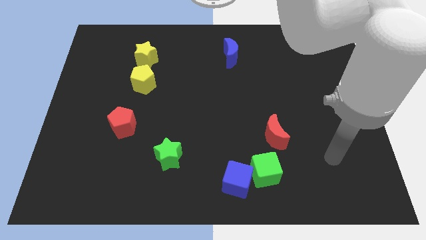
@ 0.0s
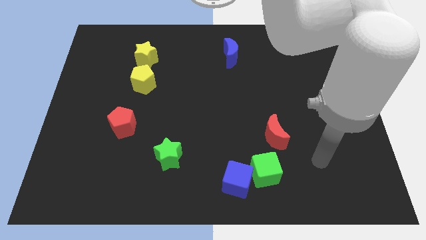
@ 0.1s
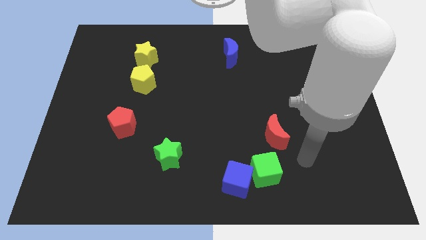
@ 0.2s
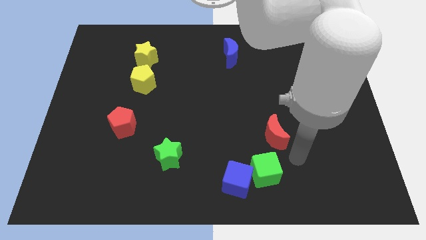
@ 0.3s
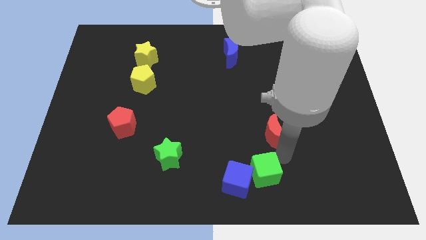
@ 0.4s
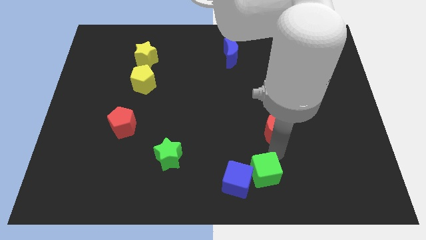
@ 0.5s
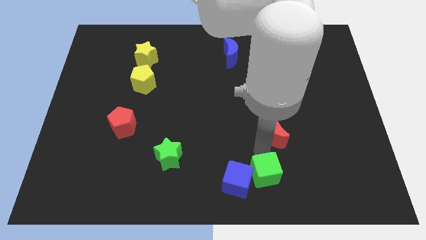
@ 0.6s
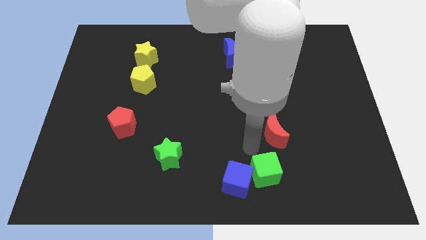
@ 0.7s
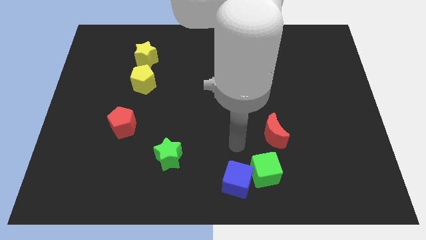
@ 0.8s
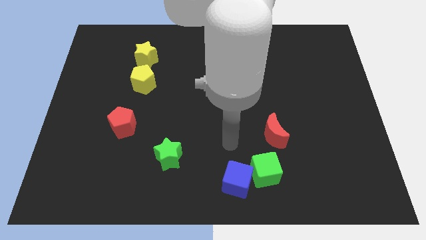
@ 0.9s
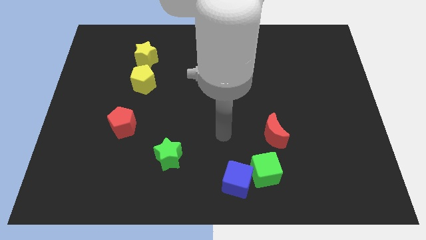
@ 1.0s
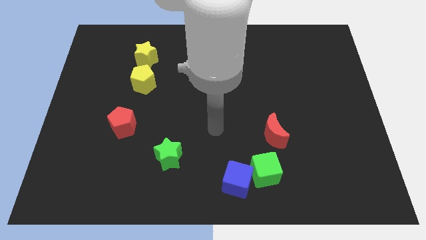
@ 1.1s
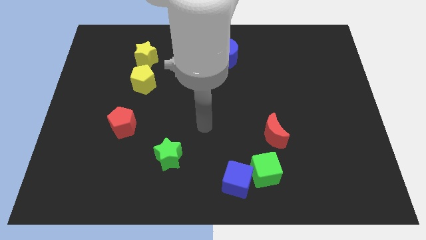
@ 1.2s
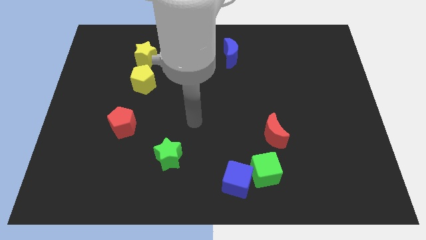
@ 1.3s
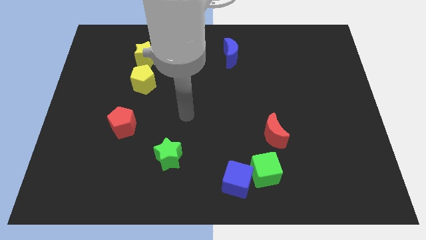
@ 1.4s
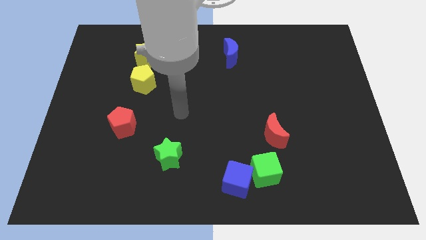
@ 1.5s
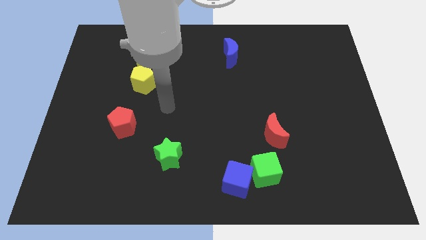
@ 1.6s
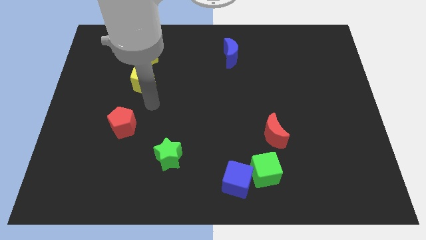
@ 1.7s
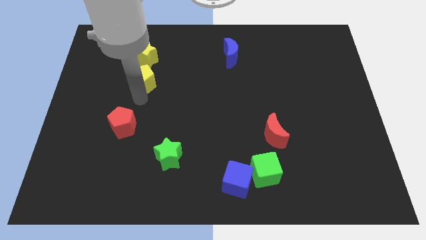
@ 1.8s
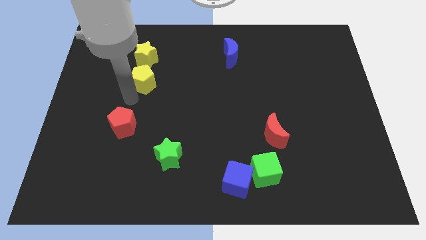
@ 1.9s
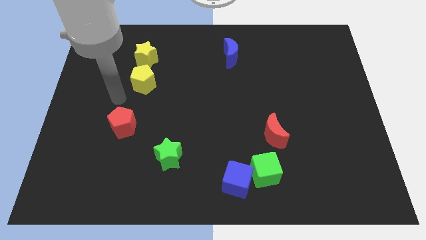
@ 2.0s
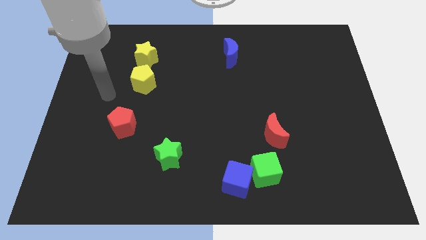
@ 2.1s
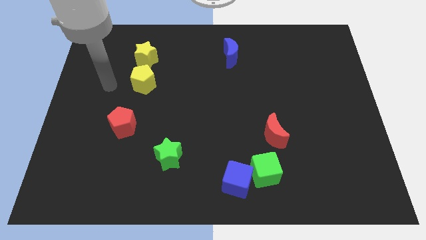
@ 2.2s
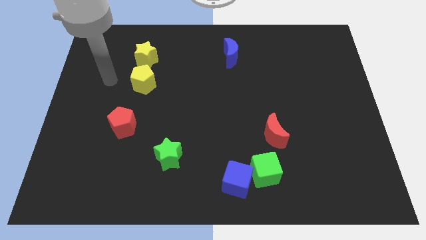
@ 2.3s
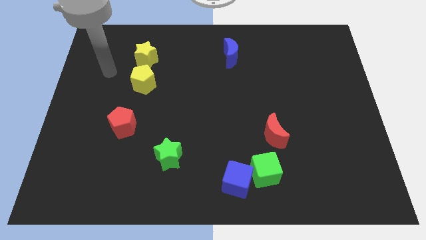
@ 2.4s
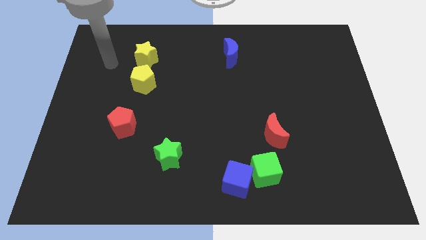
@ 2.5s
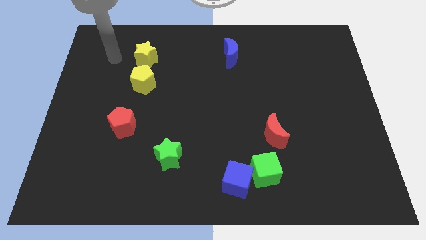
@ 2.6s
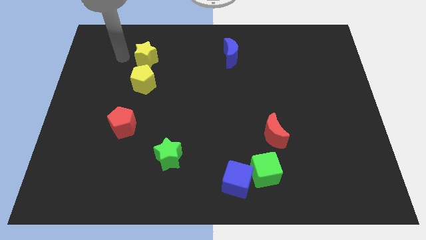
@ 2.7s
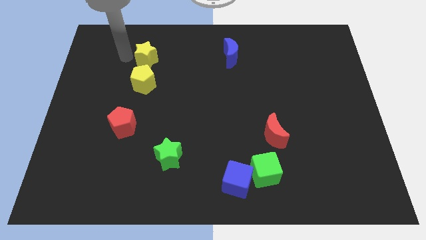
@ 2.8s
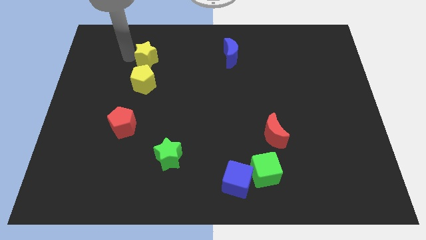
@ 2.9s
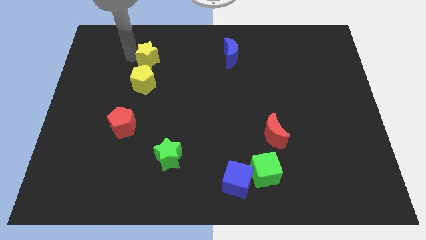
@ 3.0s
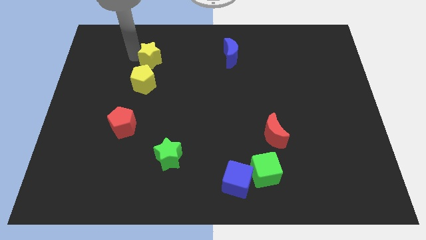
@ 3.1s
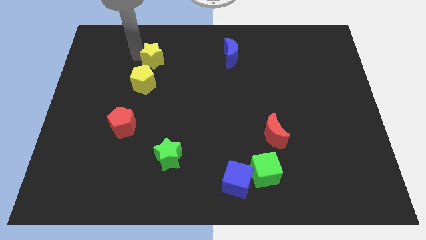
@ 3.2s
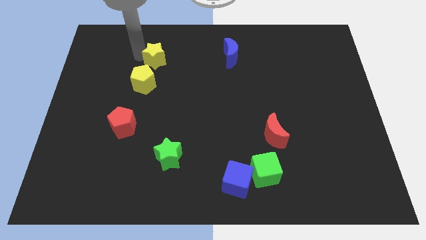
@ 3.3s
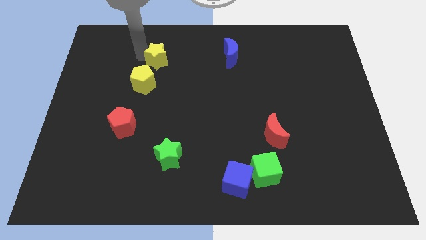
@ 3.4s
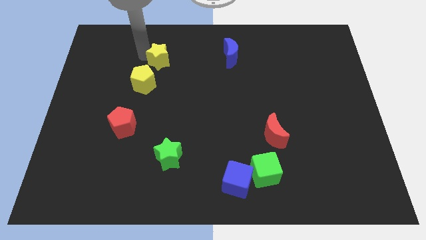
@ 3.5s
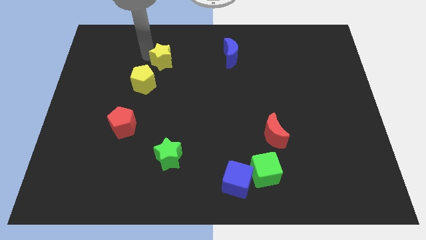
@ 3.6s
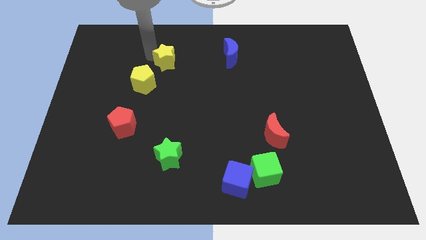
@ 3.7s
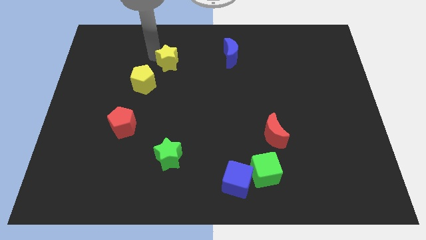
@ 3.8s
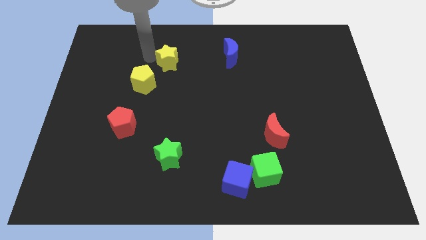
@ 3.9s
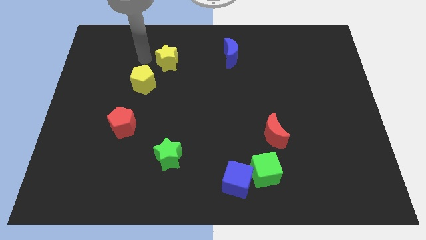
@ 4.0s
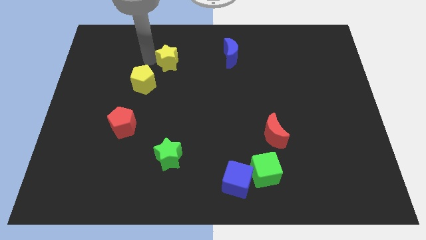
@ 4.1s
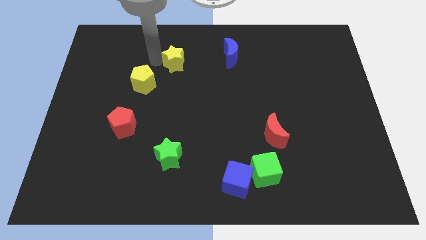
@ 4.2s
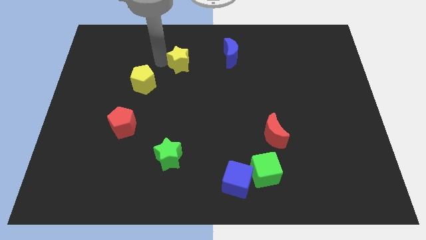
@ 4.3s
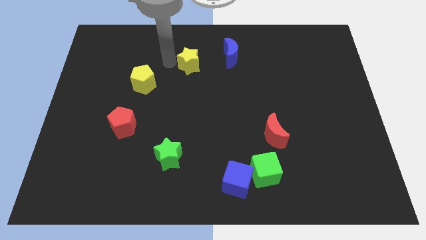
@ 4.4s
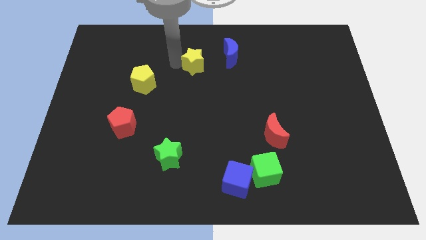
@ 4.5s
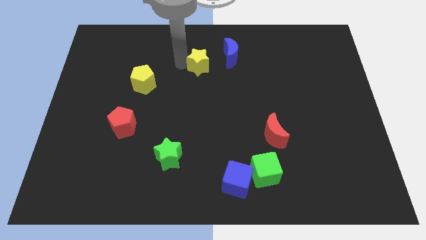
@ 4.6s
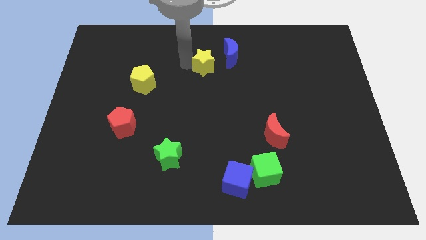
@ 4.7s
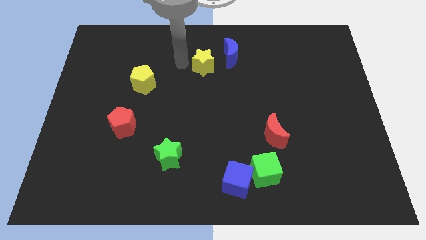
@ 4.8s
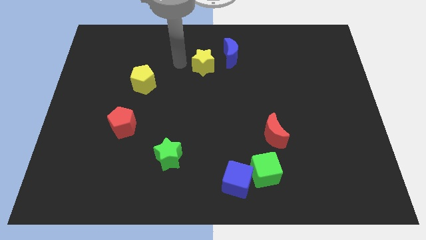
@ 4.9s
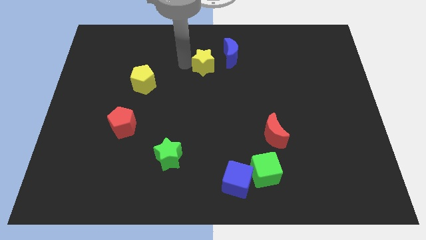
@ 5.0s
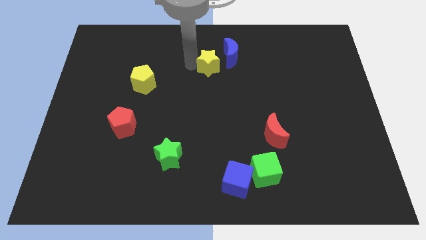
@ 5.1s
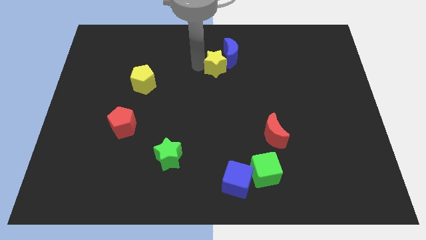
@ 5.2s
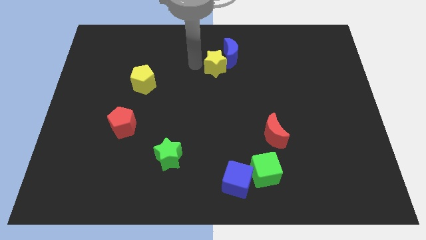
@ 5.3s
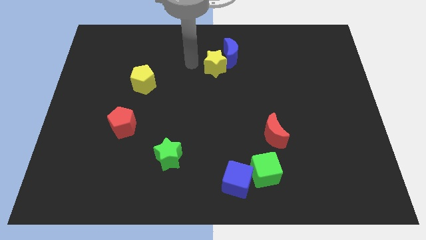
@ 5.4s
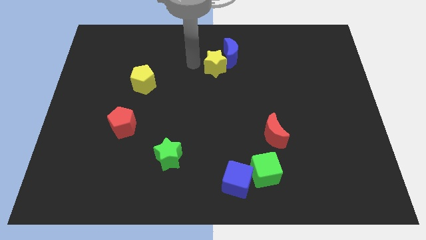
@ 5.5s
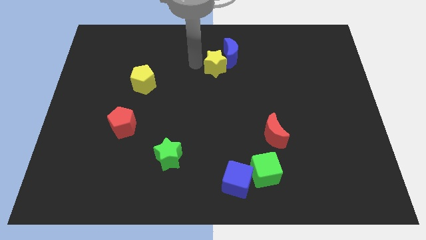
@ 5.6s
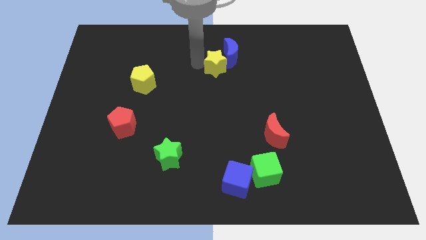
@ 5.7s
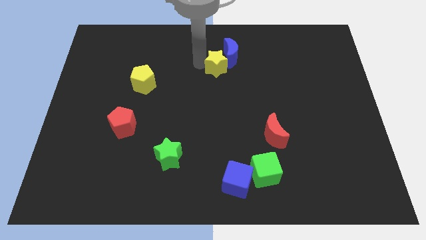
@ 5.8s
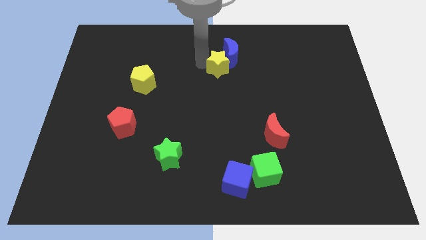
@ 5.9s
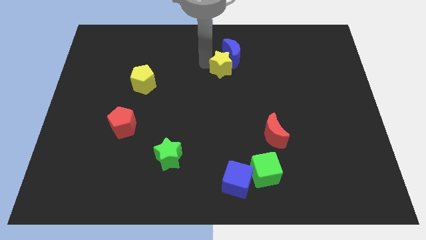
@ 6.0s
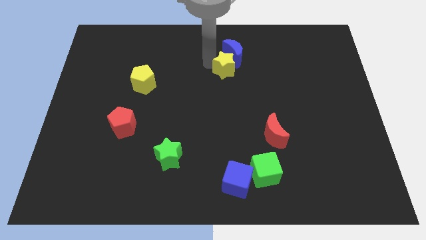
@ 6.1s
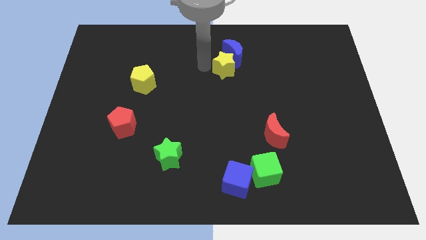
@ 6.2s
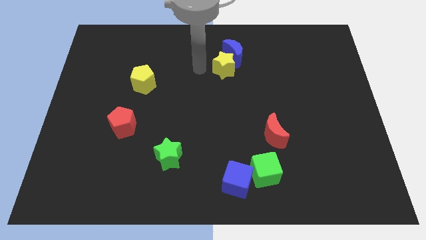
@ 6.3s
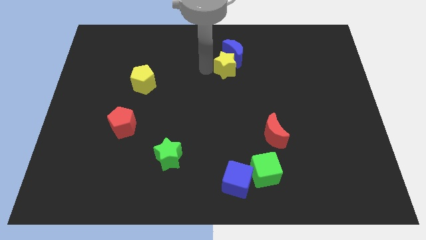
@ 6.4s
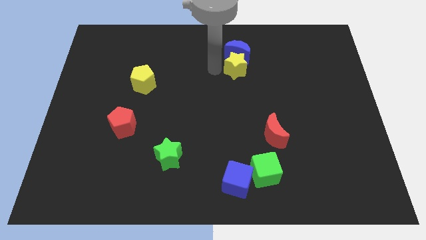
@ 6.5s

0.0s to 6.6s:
slide the yellow star diagonally down and to the right of the blue moon

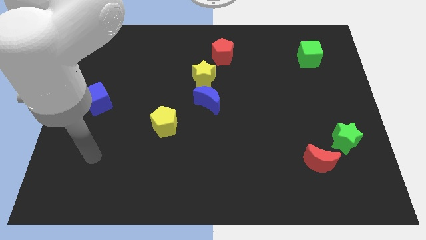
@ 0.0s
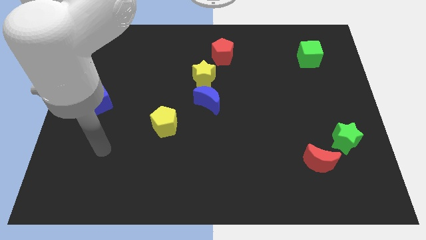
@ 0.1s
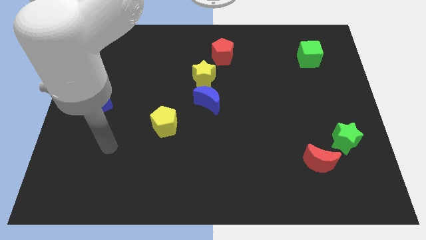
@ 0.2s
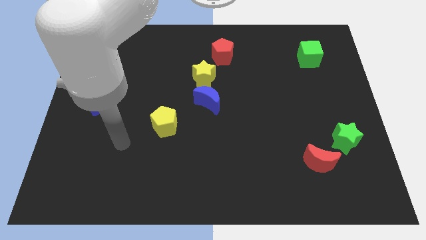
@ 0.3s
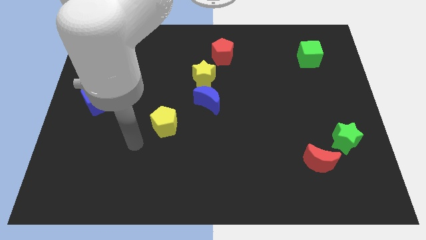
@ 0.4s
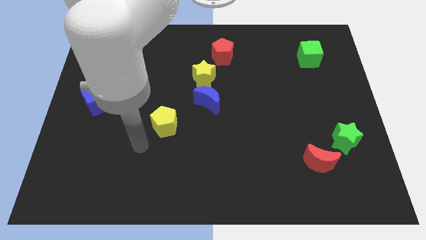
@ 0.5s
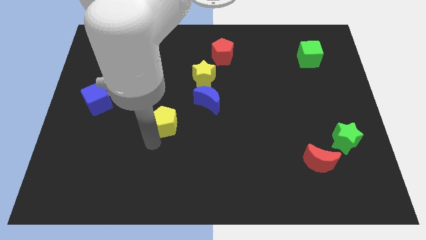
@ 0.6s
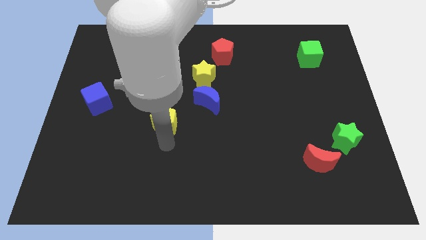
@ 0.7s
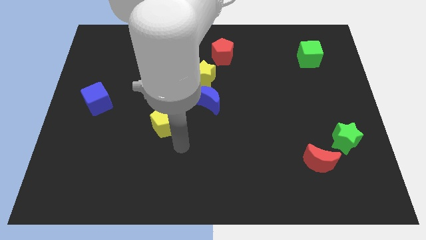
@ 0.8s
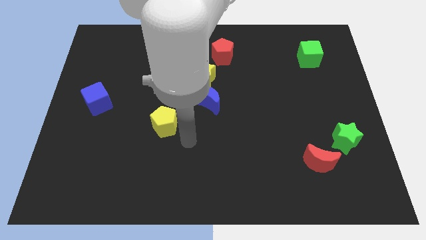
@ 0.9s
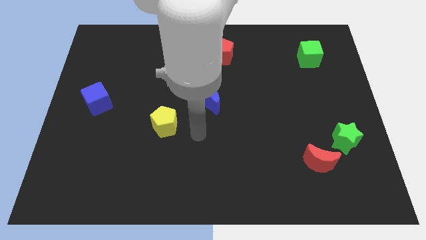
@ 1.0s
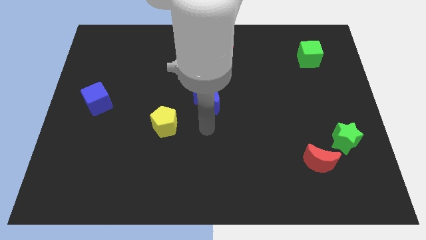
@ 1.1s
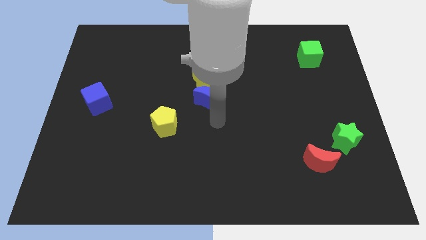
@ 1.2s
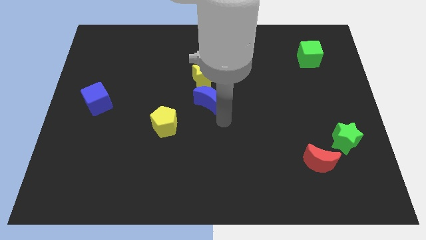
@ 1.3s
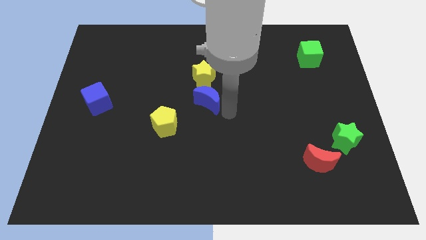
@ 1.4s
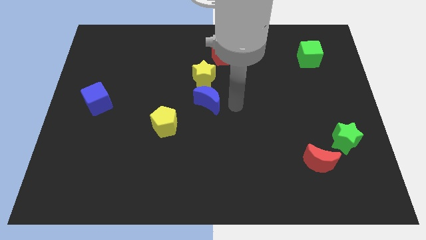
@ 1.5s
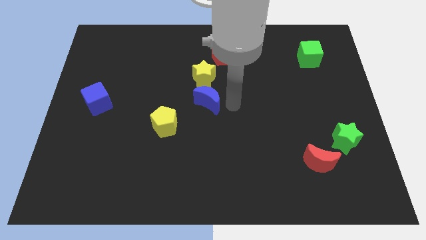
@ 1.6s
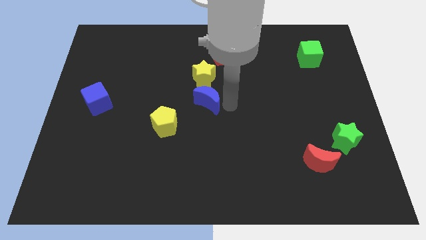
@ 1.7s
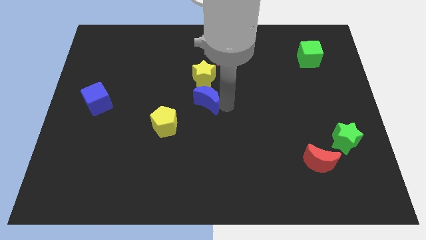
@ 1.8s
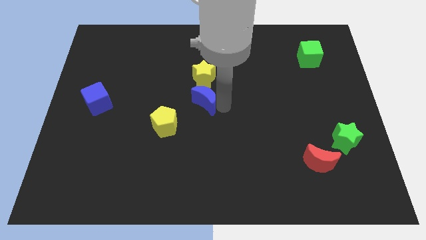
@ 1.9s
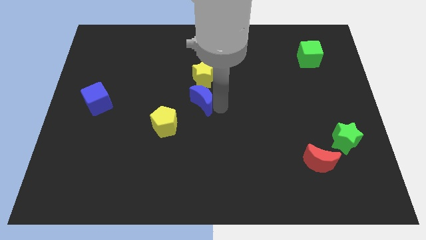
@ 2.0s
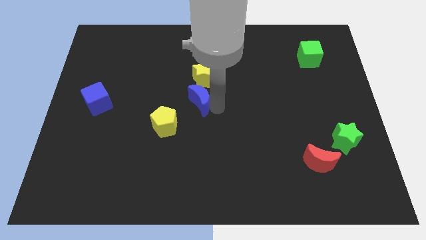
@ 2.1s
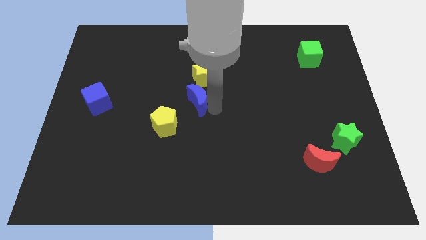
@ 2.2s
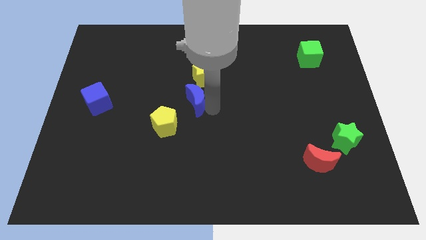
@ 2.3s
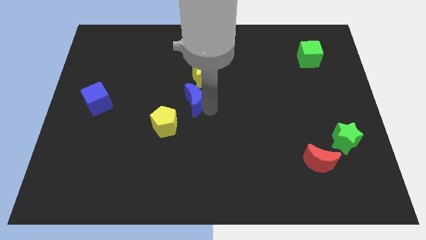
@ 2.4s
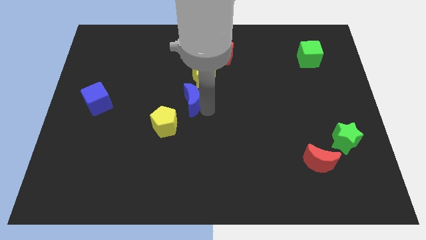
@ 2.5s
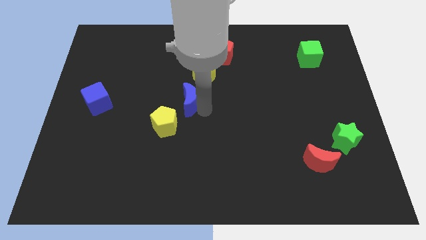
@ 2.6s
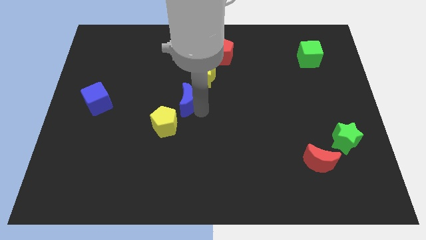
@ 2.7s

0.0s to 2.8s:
put the blue moon to the top side of the yellow pentagon
